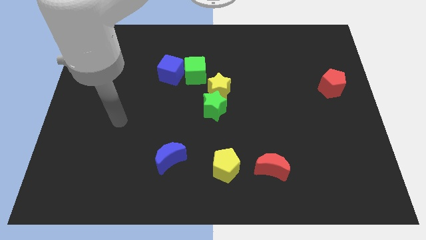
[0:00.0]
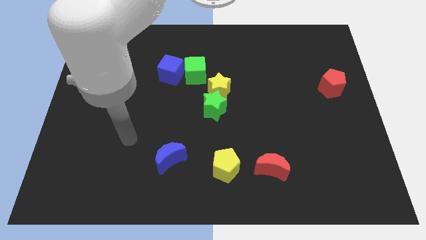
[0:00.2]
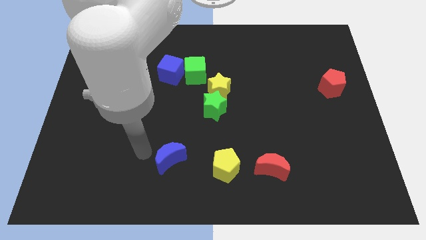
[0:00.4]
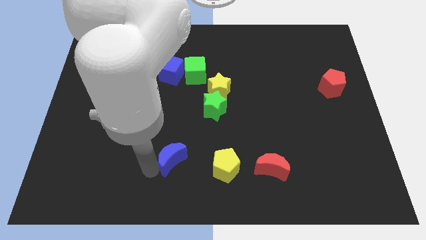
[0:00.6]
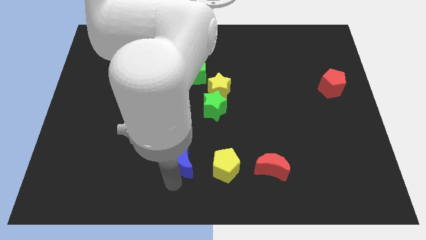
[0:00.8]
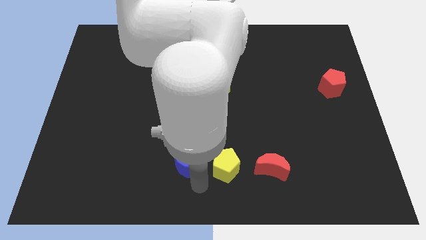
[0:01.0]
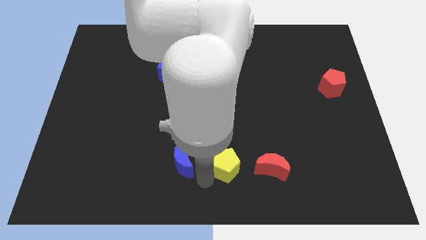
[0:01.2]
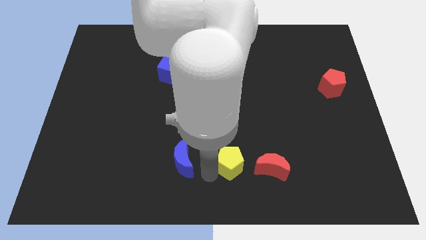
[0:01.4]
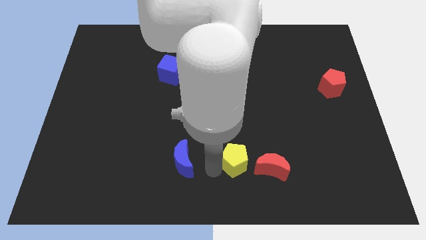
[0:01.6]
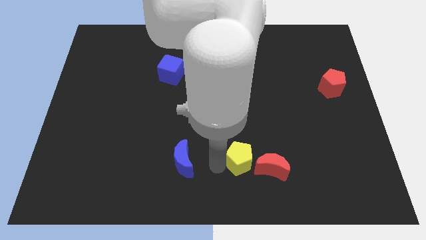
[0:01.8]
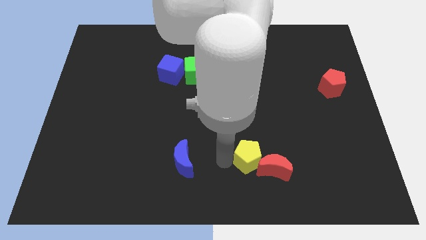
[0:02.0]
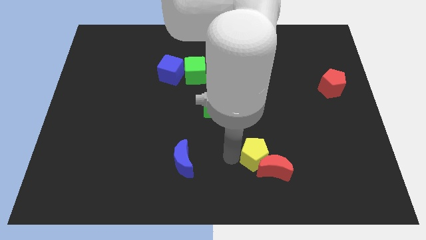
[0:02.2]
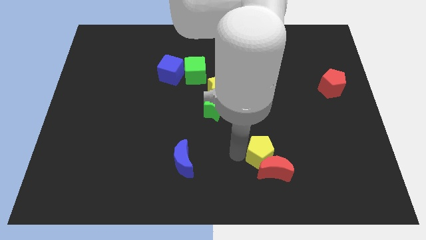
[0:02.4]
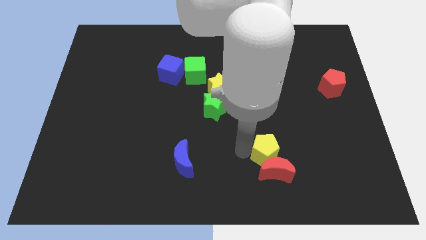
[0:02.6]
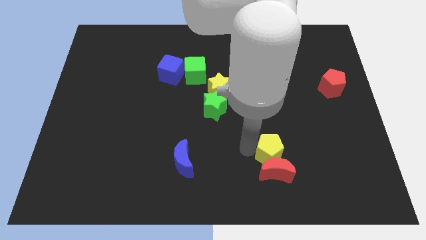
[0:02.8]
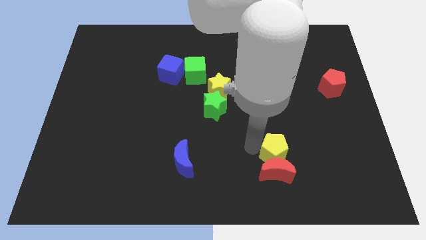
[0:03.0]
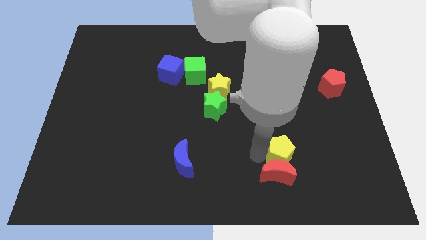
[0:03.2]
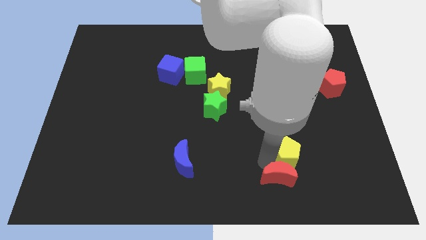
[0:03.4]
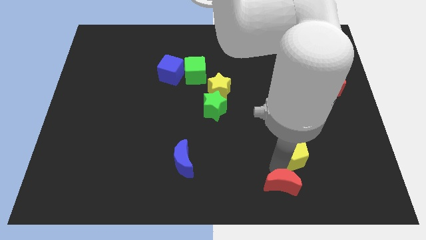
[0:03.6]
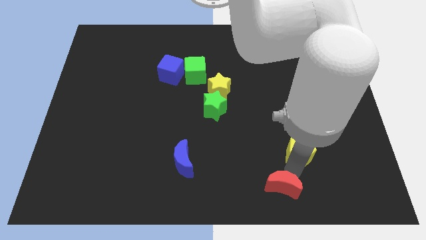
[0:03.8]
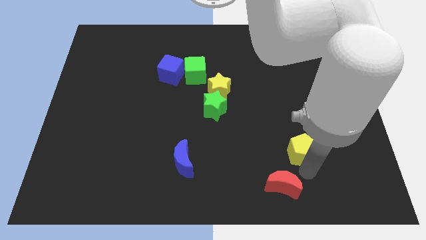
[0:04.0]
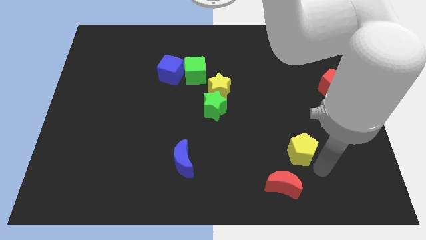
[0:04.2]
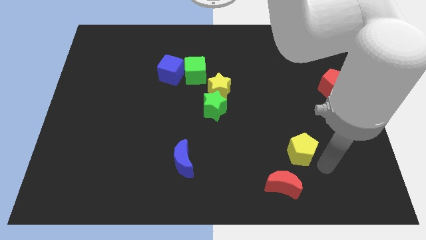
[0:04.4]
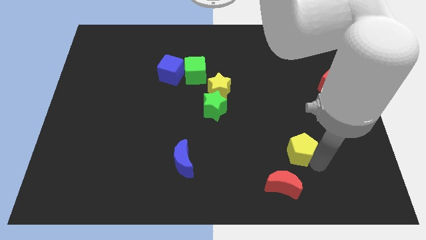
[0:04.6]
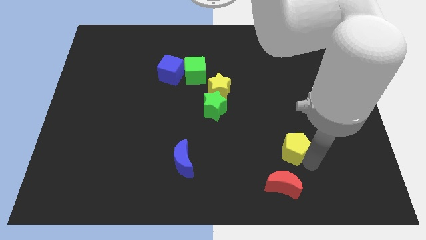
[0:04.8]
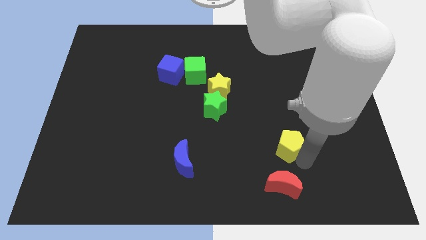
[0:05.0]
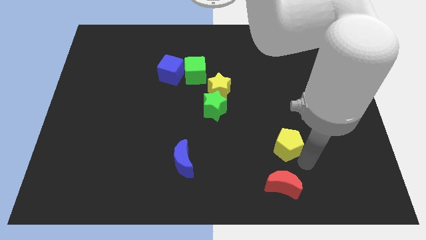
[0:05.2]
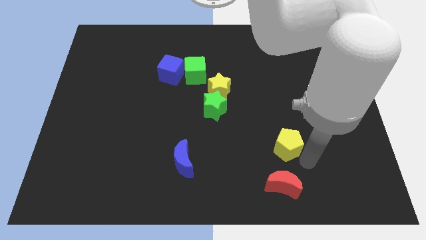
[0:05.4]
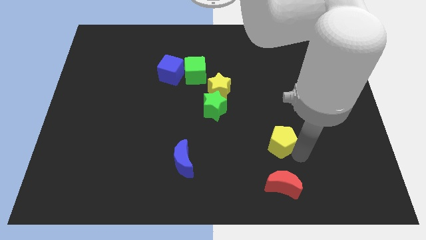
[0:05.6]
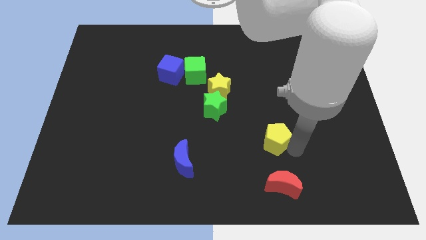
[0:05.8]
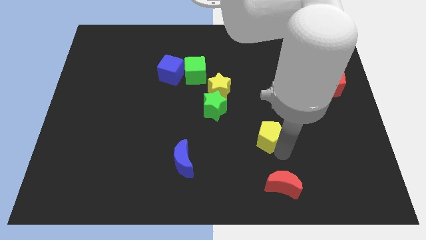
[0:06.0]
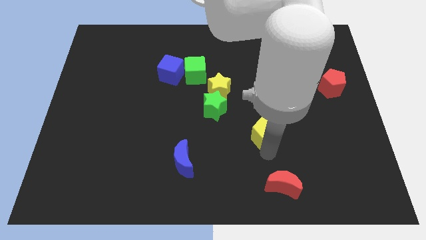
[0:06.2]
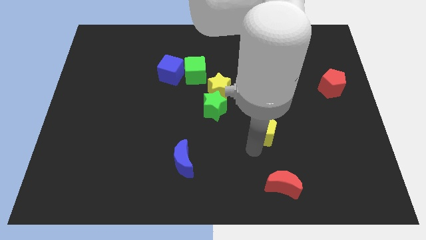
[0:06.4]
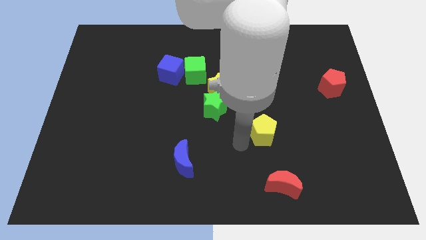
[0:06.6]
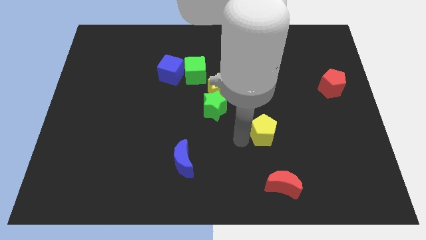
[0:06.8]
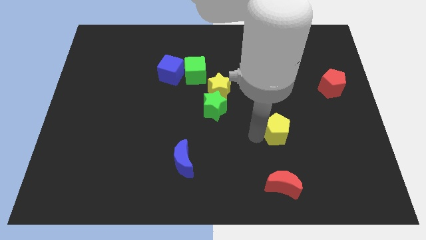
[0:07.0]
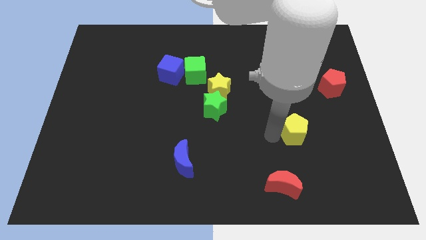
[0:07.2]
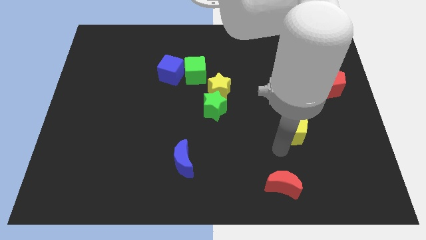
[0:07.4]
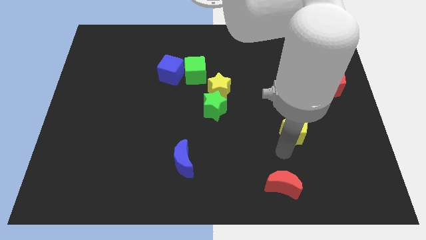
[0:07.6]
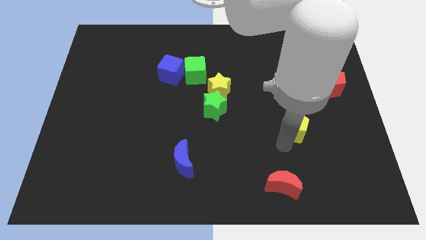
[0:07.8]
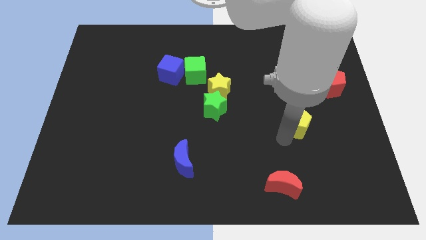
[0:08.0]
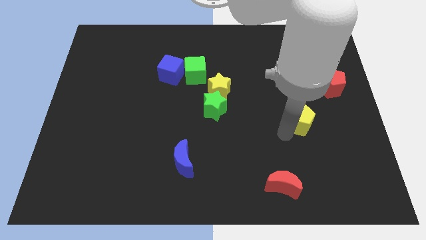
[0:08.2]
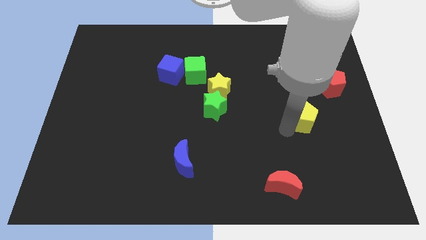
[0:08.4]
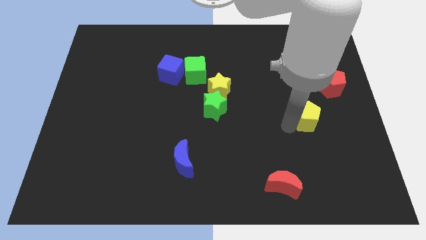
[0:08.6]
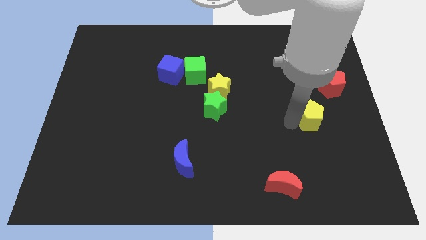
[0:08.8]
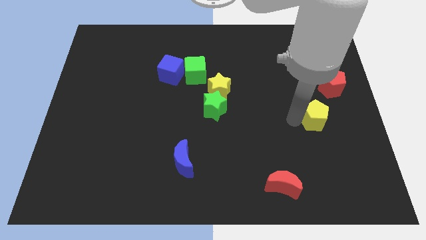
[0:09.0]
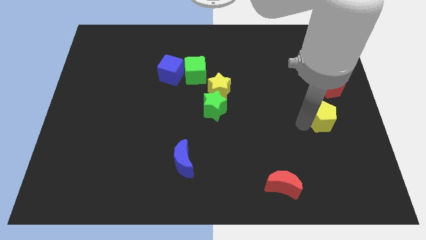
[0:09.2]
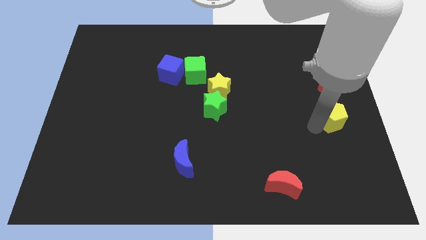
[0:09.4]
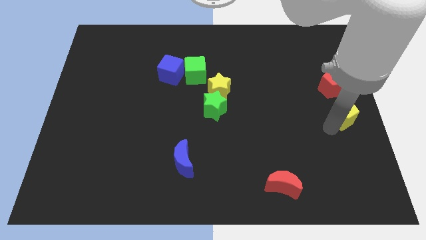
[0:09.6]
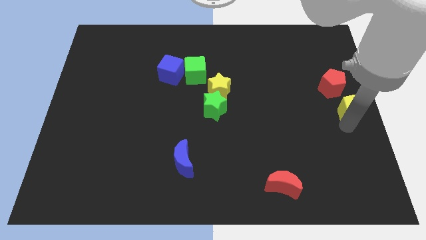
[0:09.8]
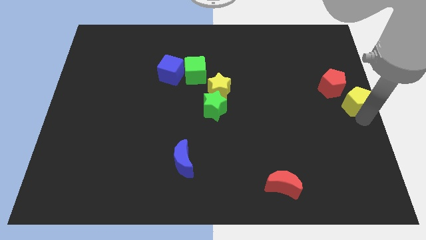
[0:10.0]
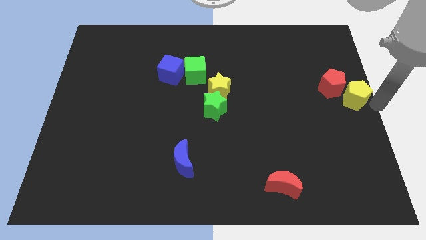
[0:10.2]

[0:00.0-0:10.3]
put the yellow pentagon close to the red pentagon

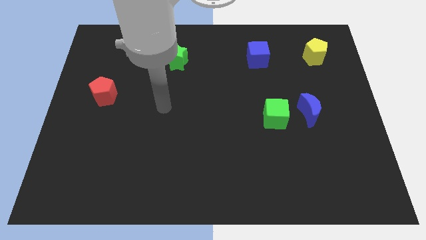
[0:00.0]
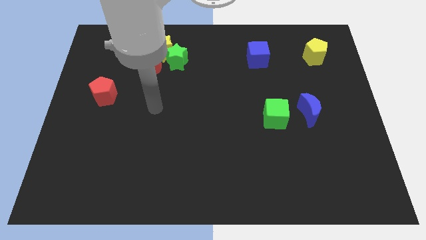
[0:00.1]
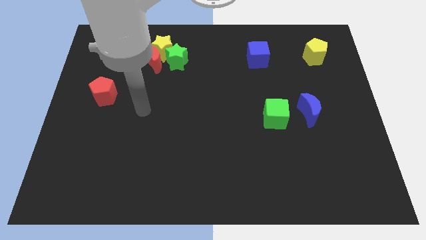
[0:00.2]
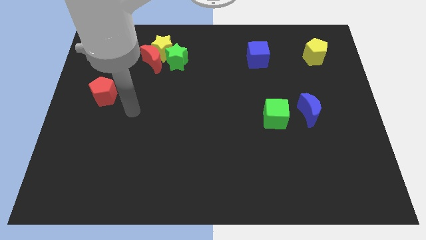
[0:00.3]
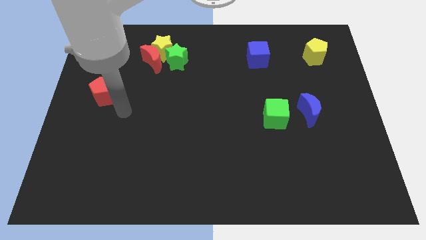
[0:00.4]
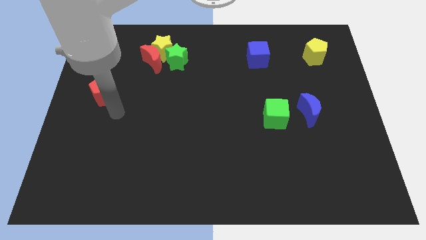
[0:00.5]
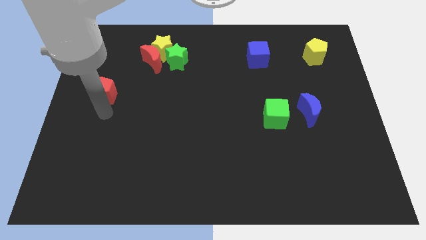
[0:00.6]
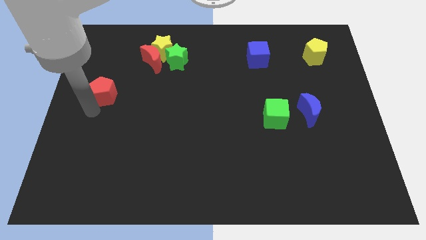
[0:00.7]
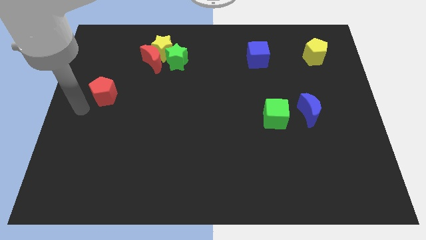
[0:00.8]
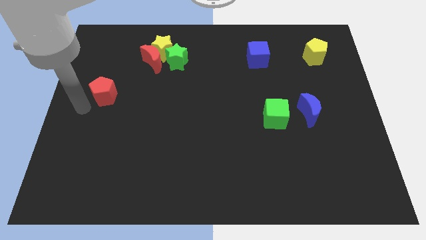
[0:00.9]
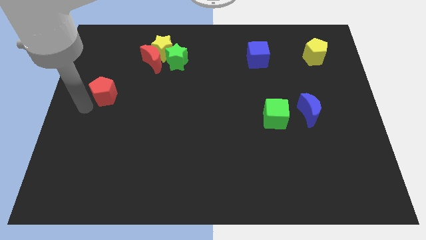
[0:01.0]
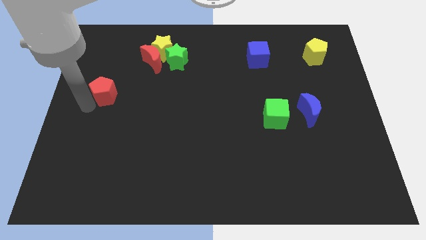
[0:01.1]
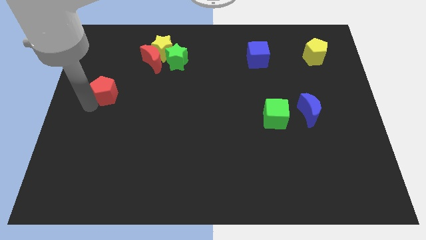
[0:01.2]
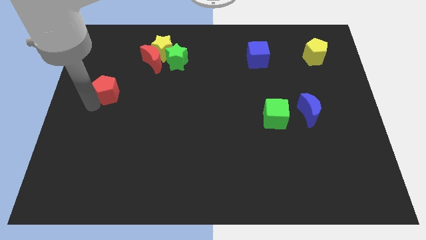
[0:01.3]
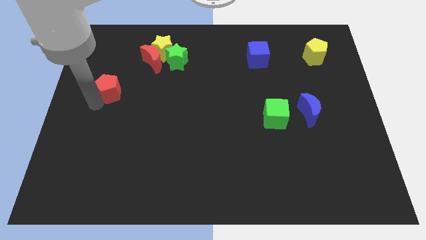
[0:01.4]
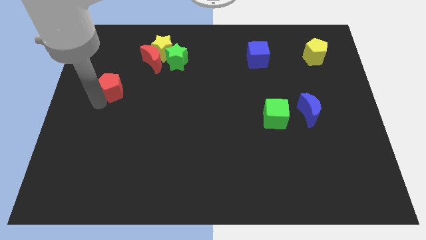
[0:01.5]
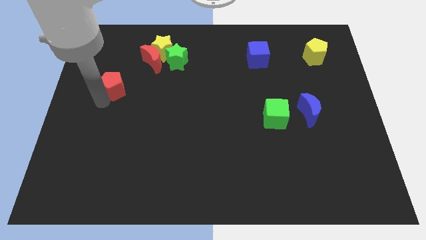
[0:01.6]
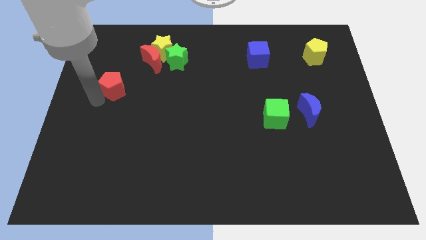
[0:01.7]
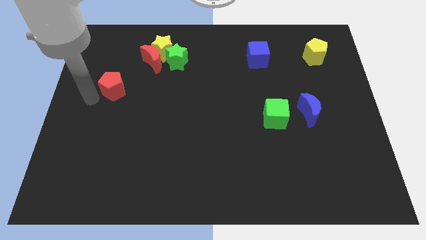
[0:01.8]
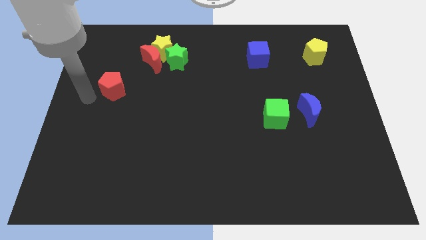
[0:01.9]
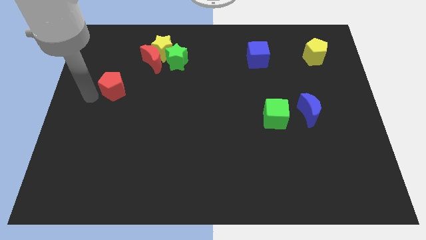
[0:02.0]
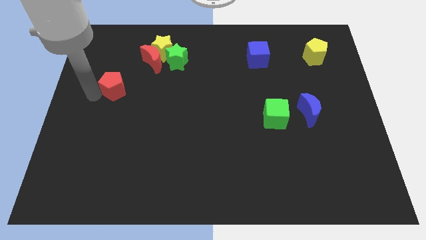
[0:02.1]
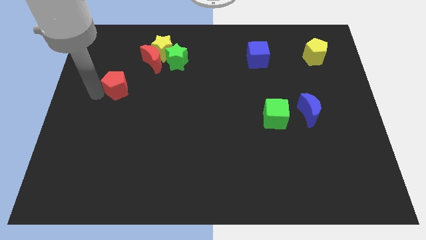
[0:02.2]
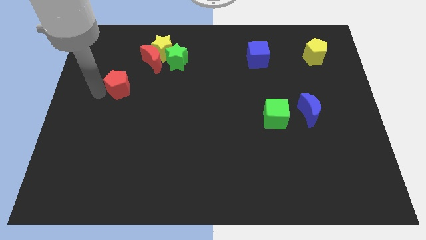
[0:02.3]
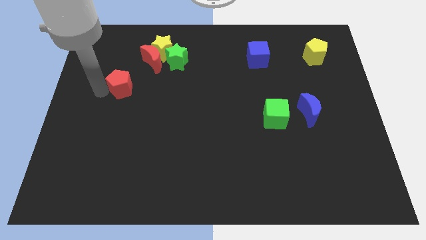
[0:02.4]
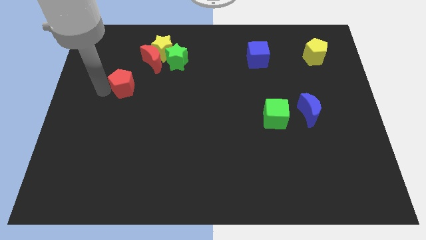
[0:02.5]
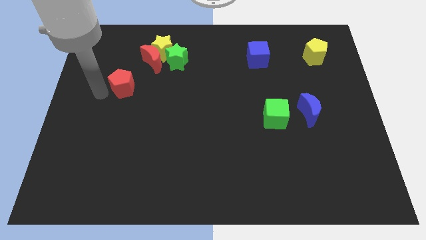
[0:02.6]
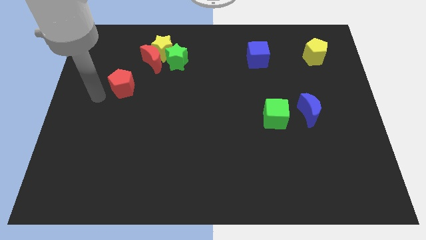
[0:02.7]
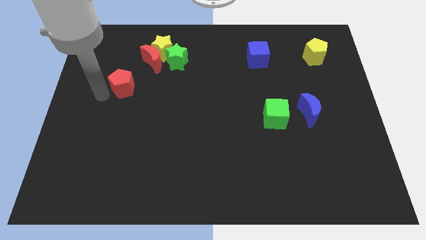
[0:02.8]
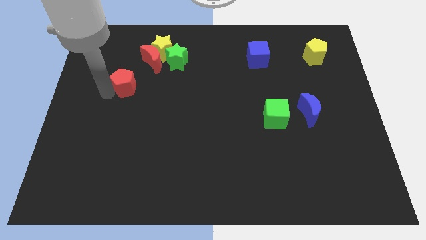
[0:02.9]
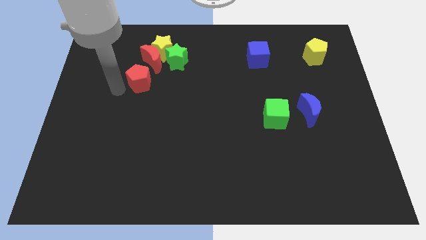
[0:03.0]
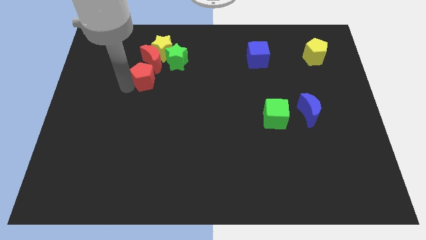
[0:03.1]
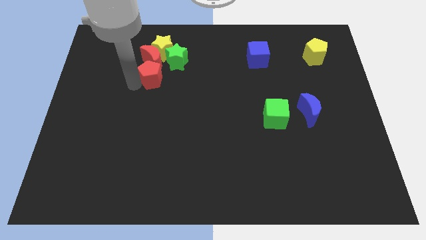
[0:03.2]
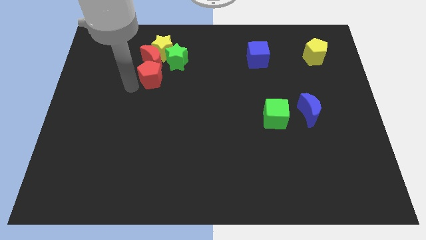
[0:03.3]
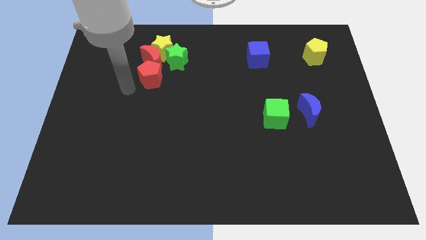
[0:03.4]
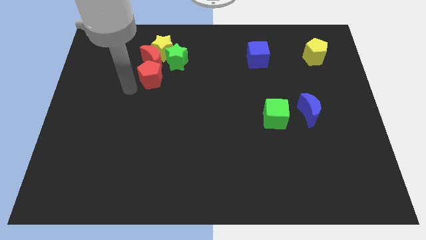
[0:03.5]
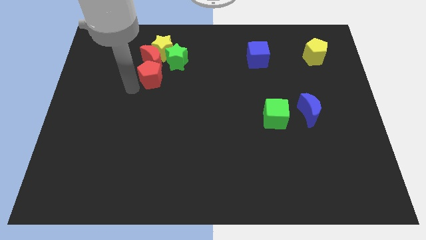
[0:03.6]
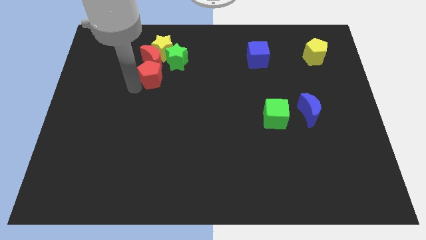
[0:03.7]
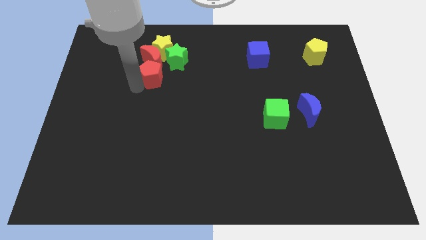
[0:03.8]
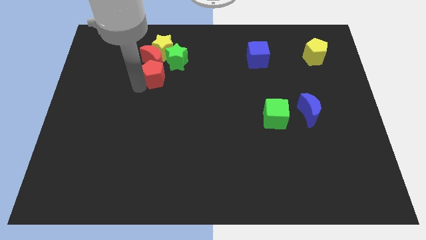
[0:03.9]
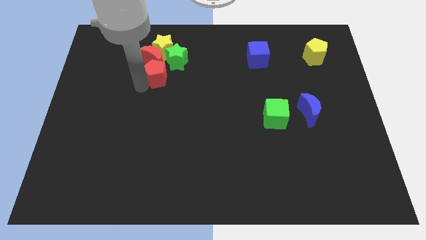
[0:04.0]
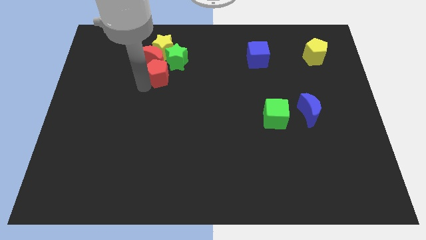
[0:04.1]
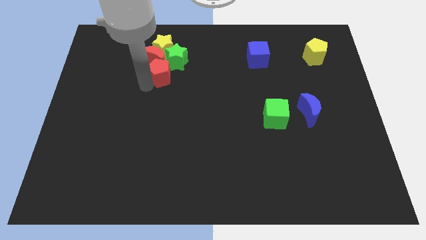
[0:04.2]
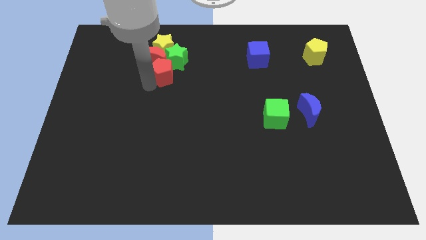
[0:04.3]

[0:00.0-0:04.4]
move the red pentagon to the green star
